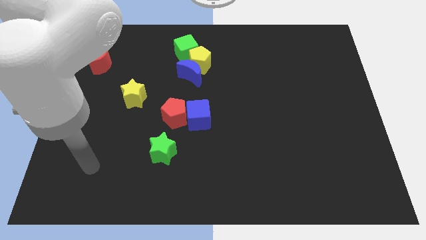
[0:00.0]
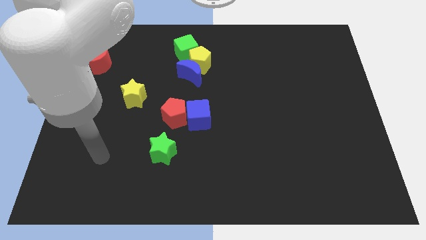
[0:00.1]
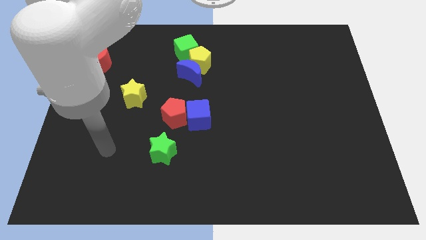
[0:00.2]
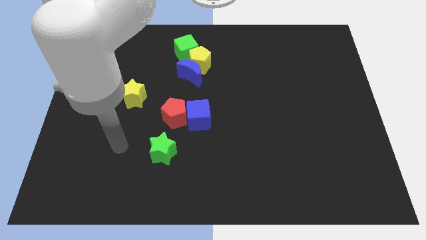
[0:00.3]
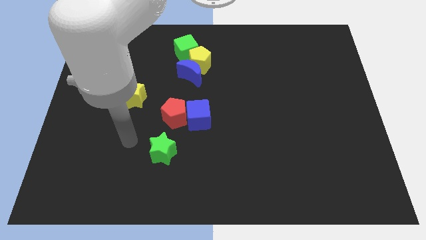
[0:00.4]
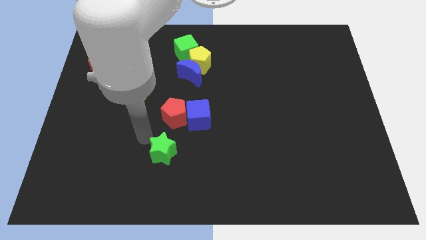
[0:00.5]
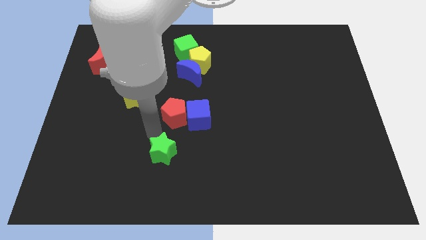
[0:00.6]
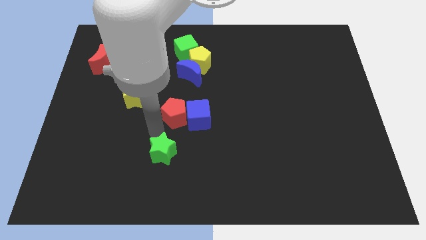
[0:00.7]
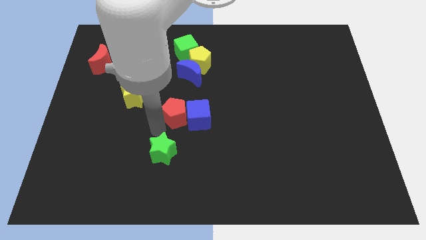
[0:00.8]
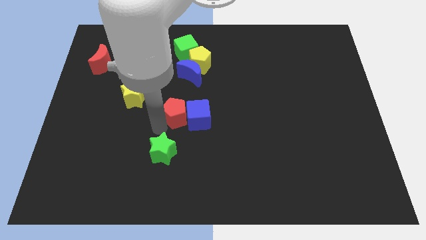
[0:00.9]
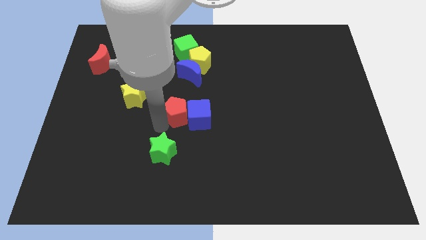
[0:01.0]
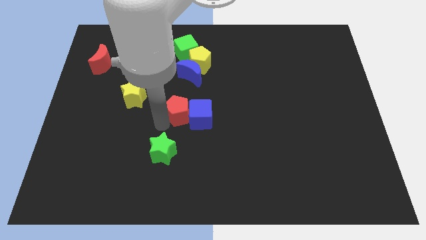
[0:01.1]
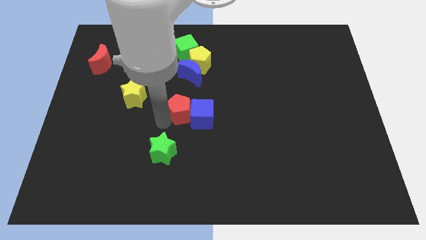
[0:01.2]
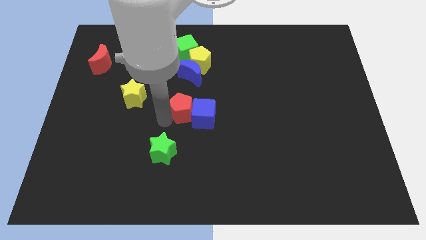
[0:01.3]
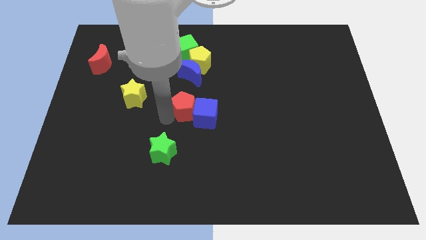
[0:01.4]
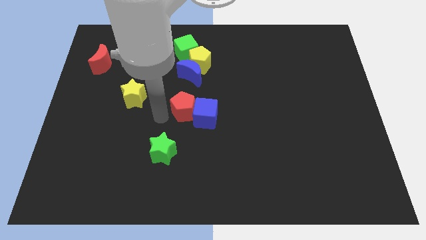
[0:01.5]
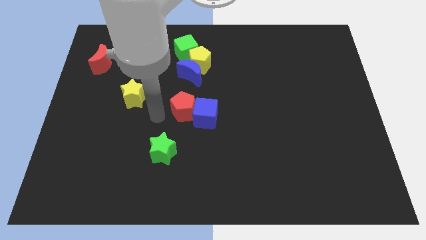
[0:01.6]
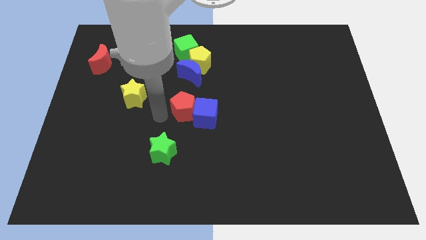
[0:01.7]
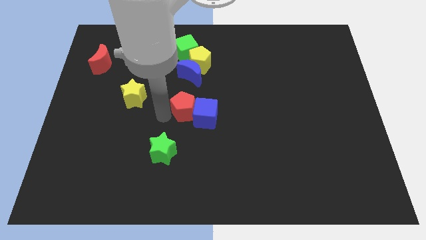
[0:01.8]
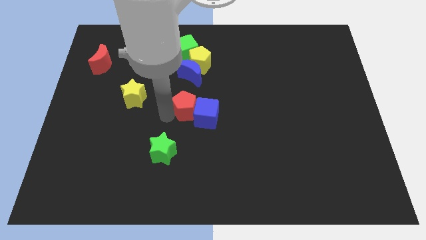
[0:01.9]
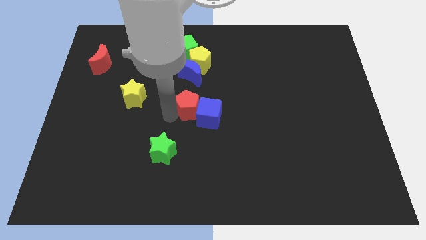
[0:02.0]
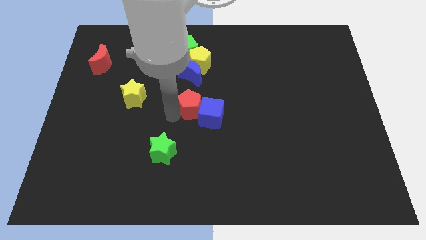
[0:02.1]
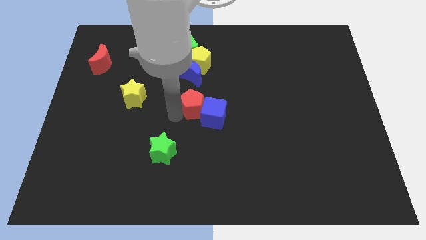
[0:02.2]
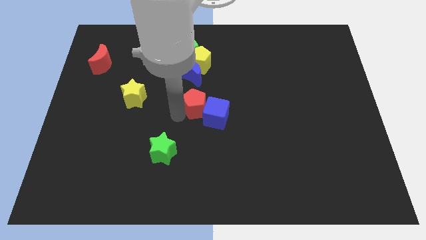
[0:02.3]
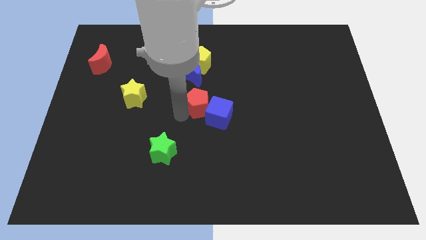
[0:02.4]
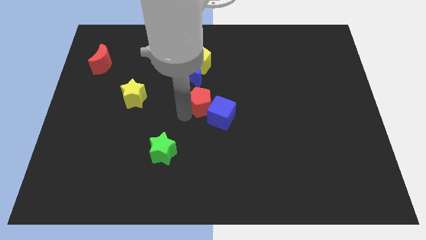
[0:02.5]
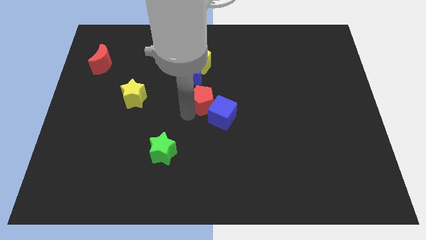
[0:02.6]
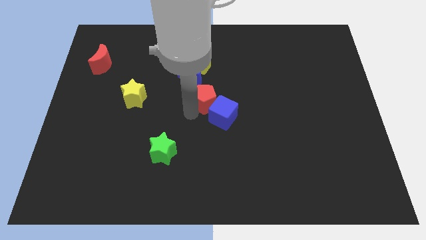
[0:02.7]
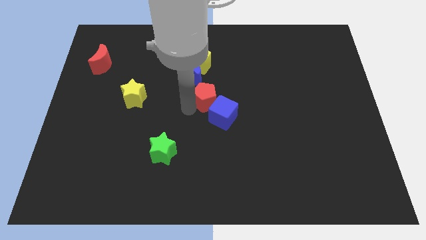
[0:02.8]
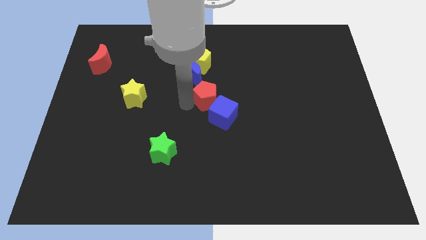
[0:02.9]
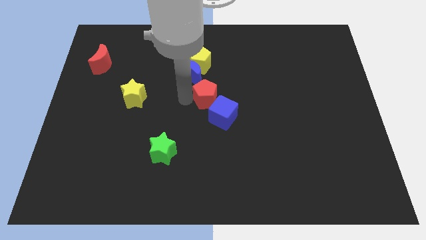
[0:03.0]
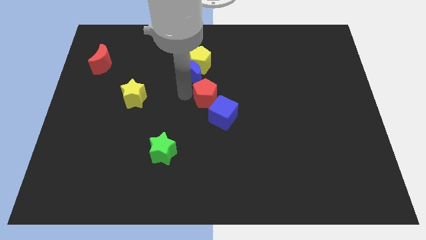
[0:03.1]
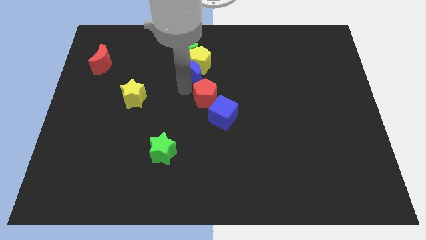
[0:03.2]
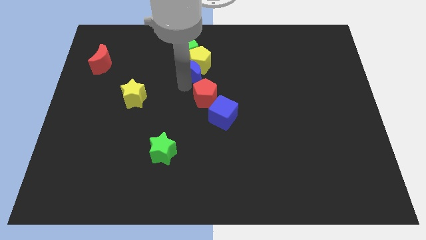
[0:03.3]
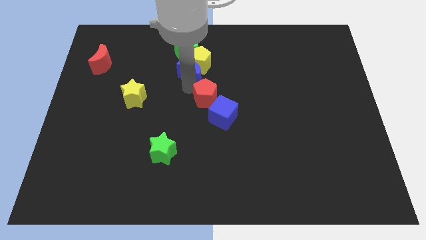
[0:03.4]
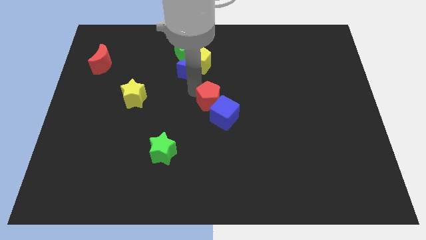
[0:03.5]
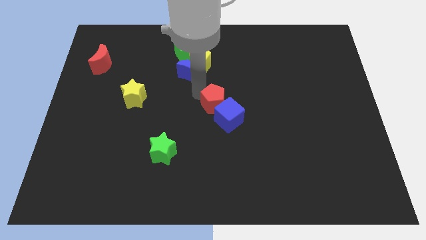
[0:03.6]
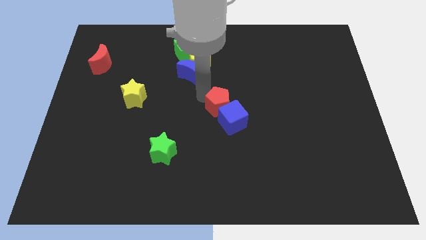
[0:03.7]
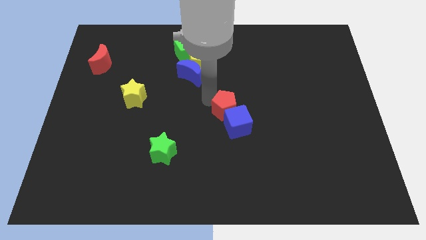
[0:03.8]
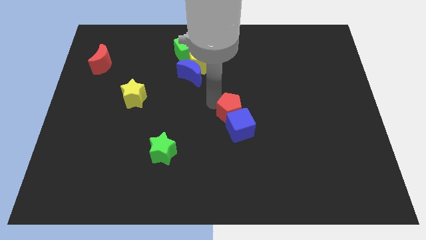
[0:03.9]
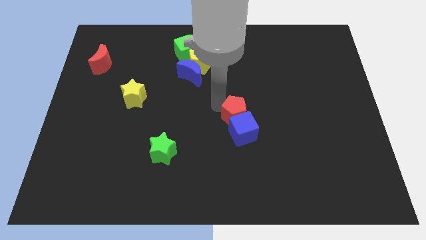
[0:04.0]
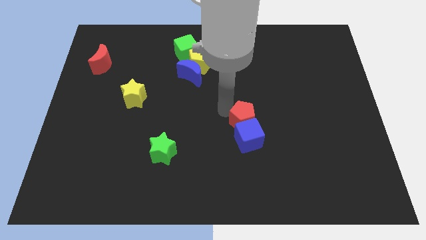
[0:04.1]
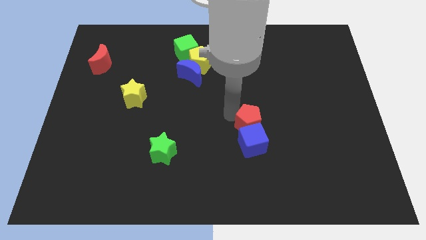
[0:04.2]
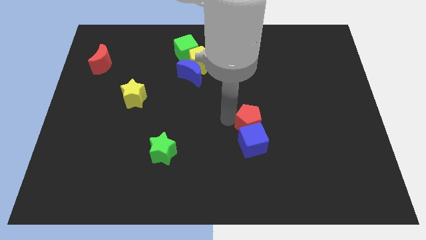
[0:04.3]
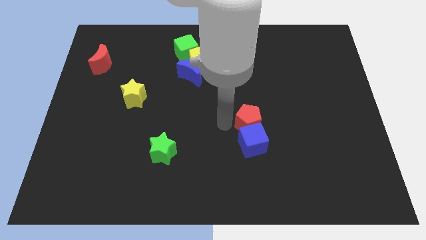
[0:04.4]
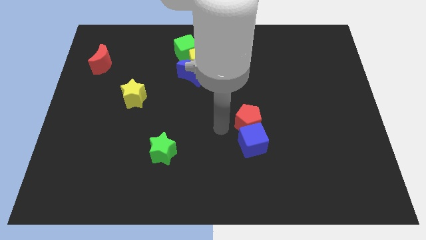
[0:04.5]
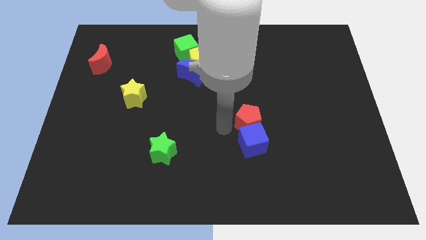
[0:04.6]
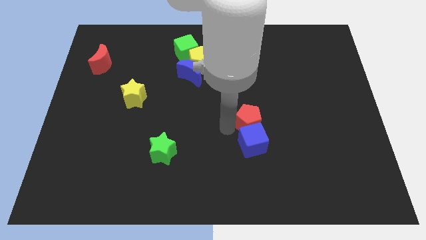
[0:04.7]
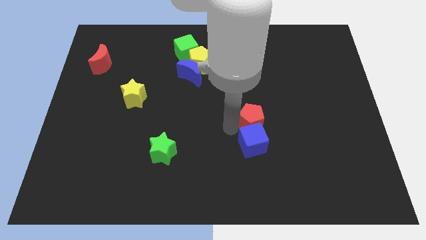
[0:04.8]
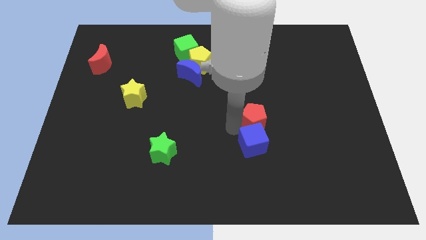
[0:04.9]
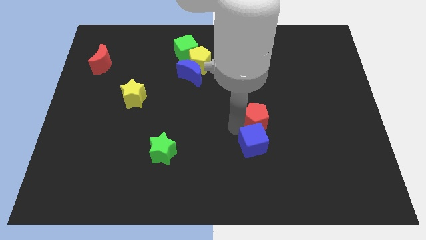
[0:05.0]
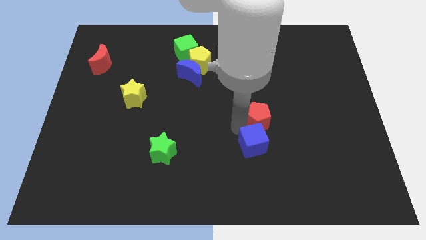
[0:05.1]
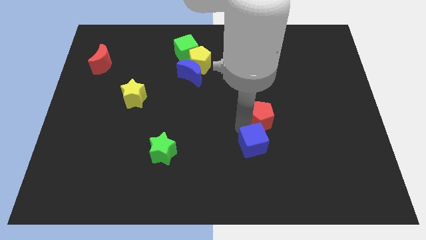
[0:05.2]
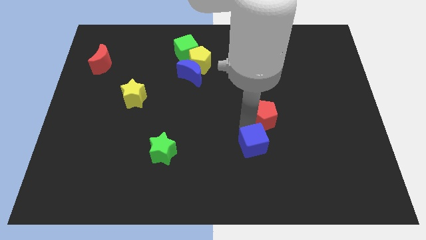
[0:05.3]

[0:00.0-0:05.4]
push the red pentagon to the right

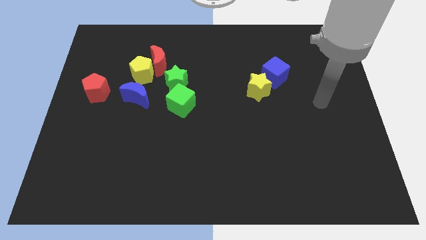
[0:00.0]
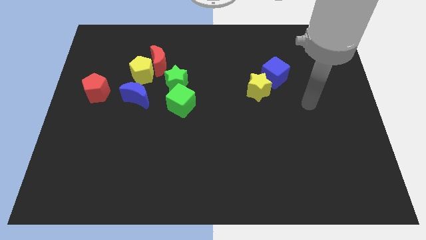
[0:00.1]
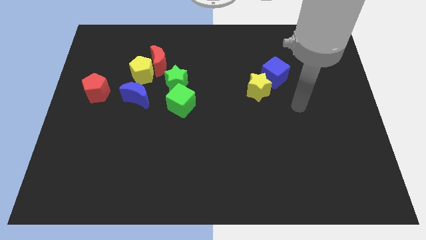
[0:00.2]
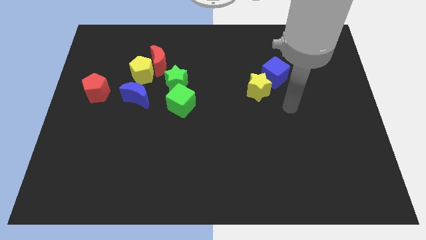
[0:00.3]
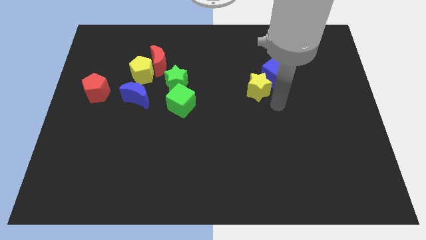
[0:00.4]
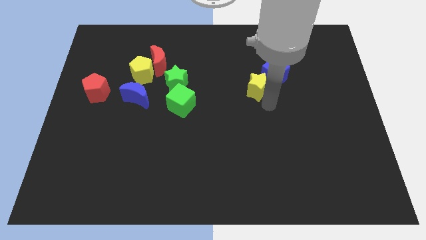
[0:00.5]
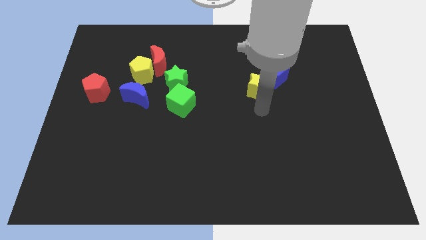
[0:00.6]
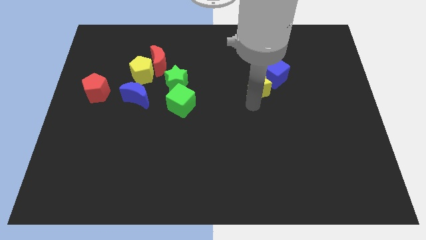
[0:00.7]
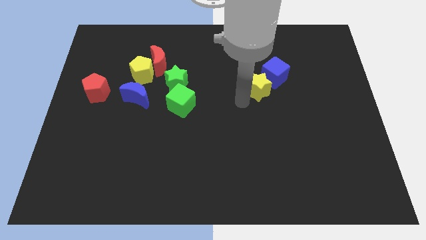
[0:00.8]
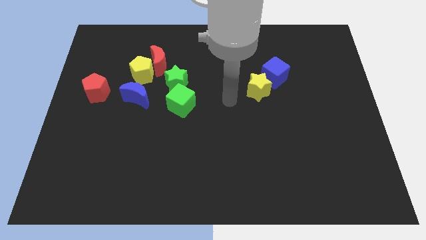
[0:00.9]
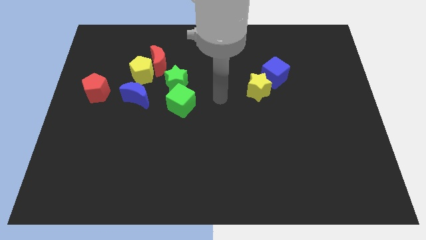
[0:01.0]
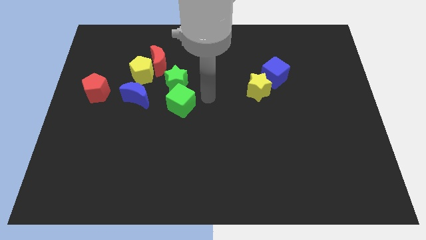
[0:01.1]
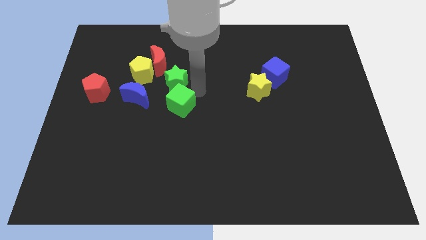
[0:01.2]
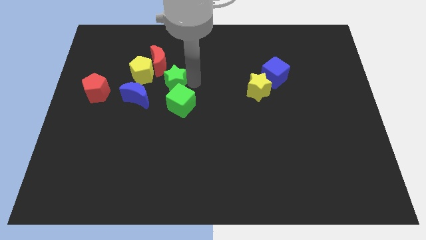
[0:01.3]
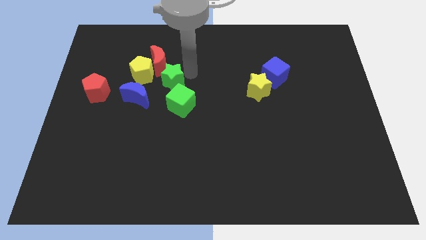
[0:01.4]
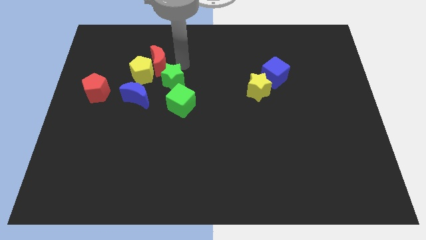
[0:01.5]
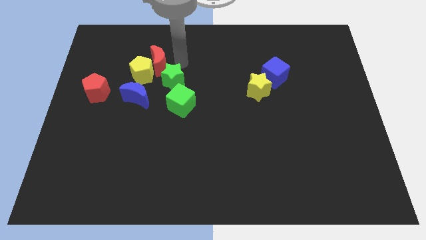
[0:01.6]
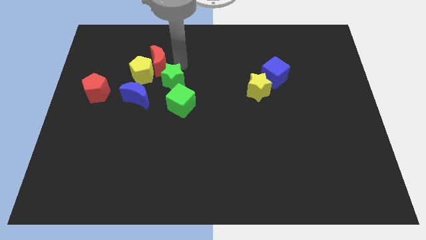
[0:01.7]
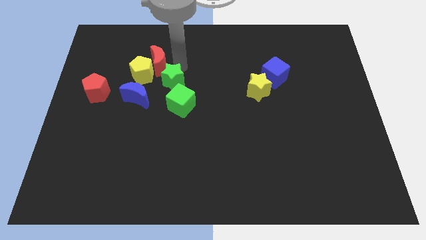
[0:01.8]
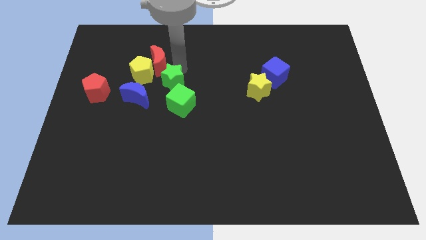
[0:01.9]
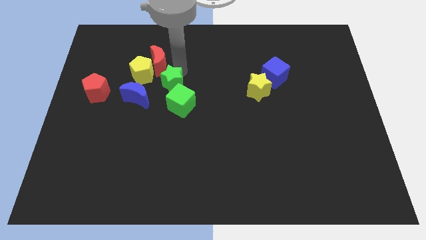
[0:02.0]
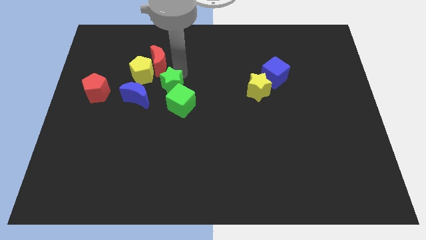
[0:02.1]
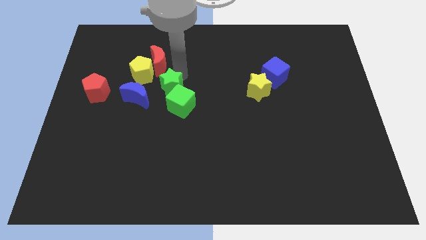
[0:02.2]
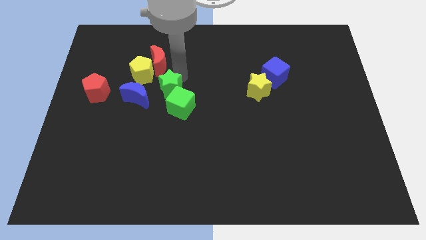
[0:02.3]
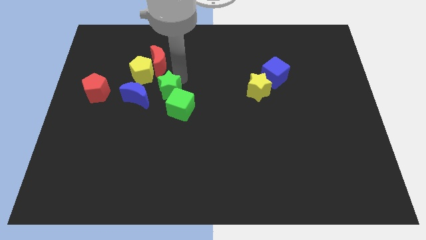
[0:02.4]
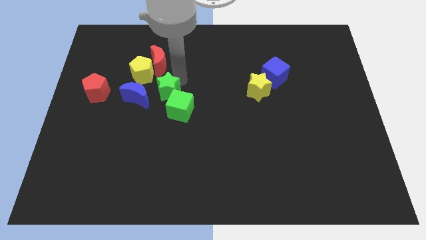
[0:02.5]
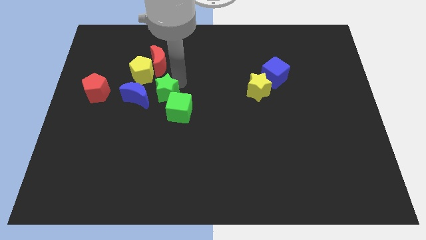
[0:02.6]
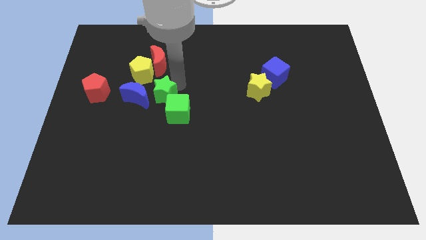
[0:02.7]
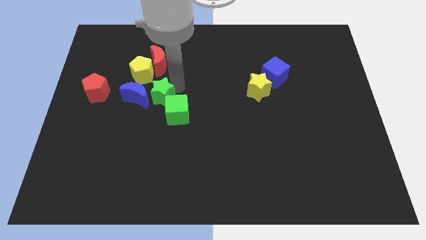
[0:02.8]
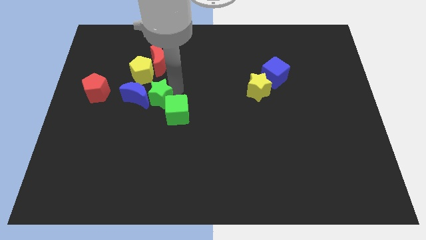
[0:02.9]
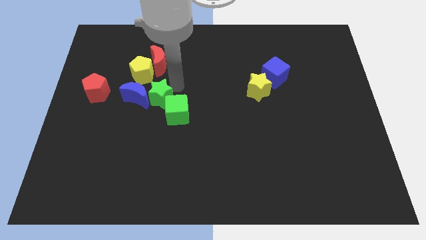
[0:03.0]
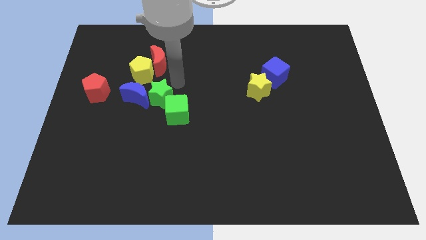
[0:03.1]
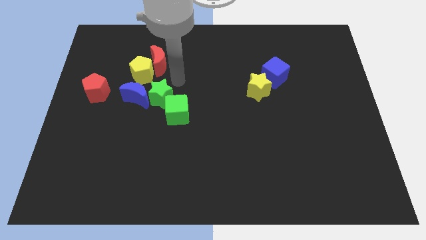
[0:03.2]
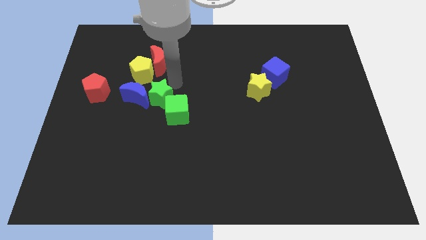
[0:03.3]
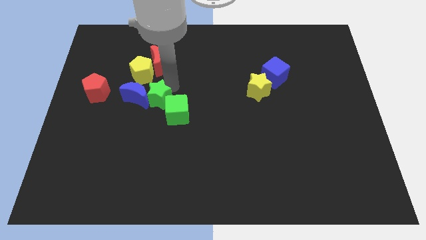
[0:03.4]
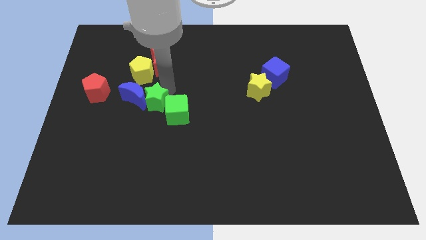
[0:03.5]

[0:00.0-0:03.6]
slightly move the green star down and to the left diagonally
